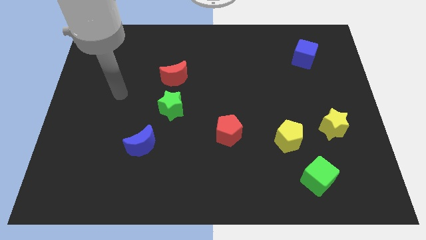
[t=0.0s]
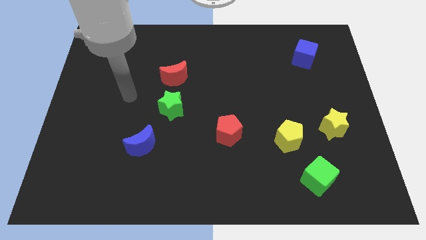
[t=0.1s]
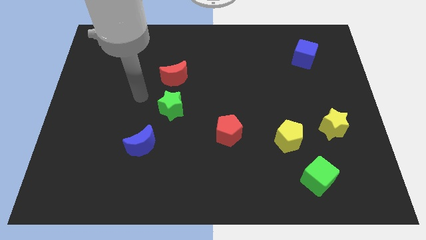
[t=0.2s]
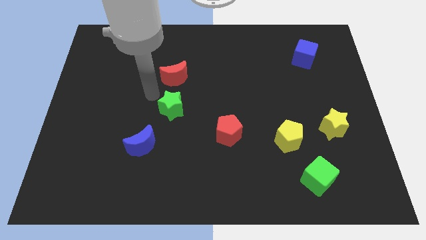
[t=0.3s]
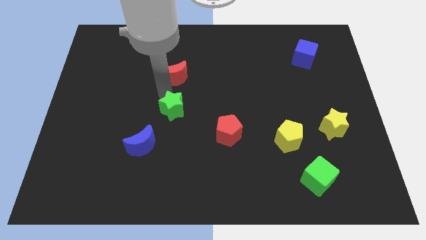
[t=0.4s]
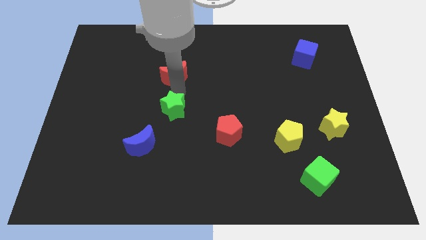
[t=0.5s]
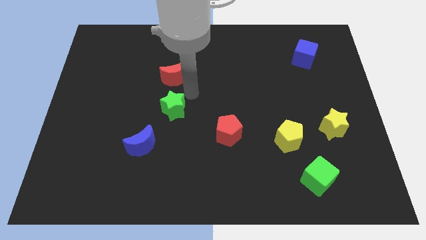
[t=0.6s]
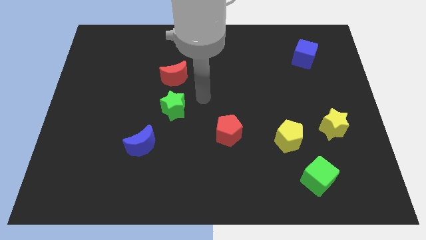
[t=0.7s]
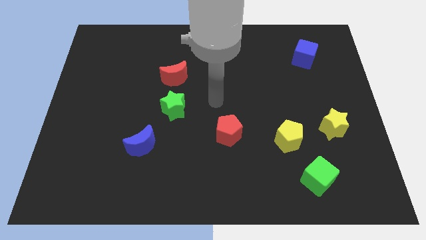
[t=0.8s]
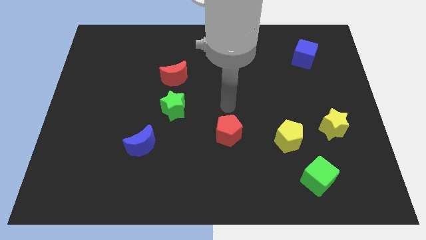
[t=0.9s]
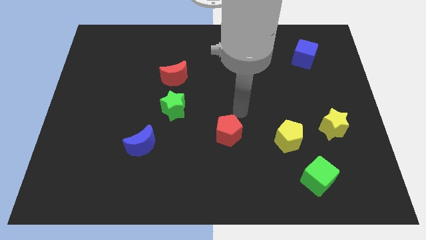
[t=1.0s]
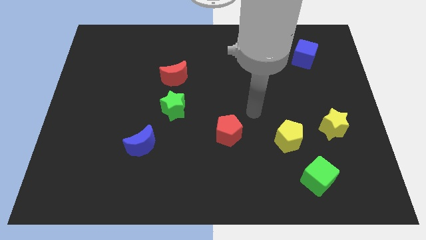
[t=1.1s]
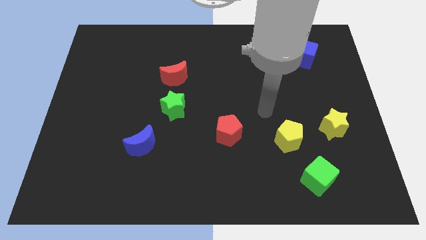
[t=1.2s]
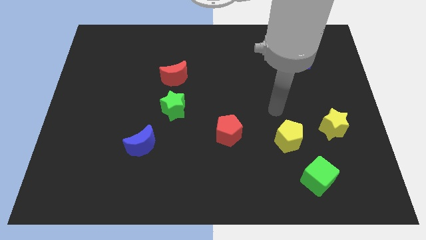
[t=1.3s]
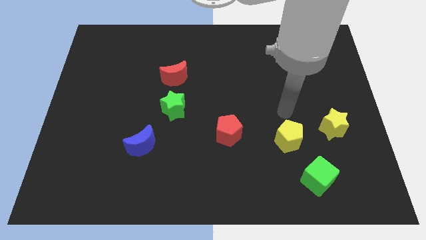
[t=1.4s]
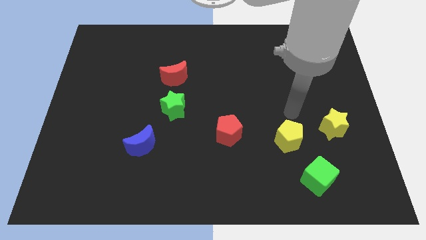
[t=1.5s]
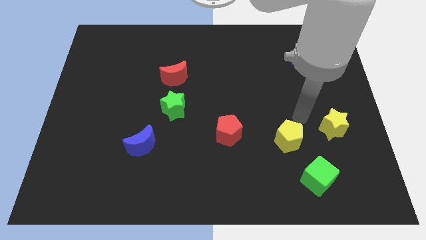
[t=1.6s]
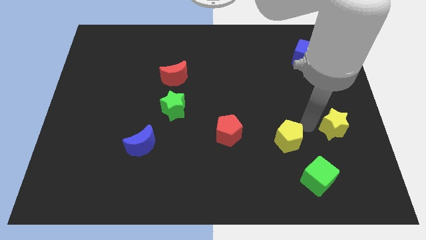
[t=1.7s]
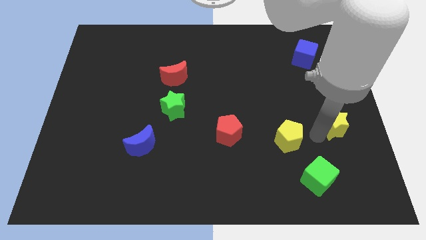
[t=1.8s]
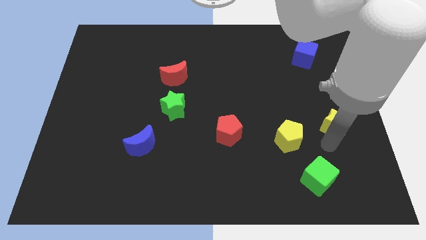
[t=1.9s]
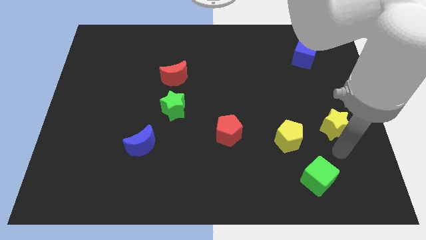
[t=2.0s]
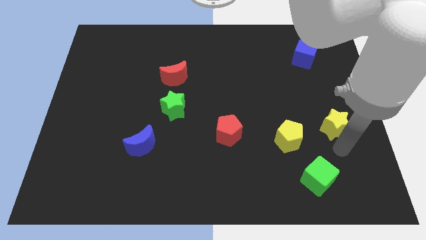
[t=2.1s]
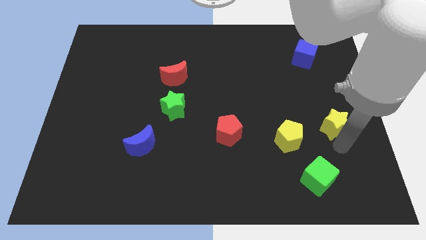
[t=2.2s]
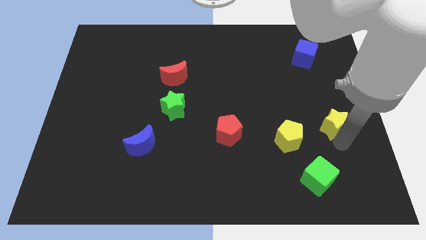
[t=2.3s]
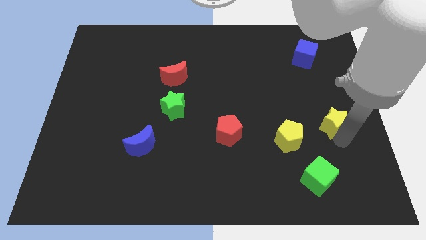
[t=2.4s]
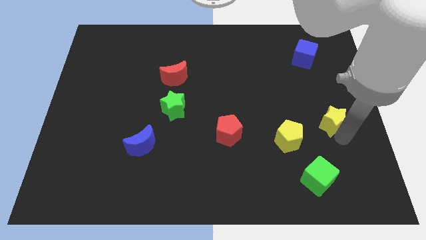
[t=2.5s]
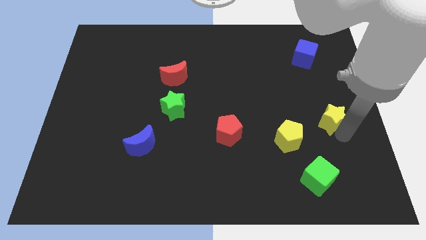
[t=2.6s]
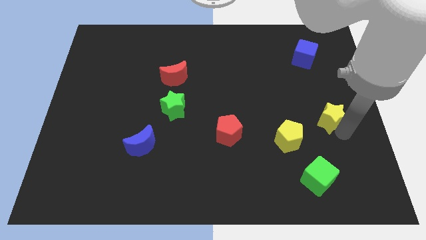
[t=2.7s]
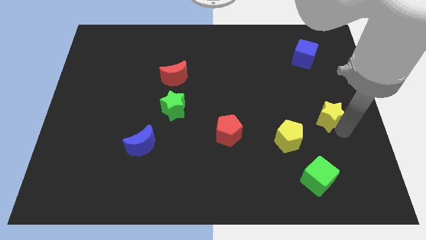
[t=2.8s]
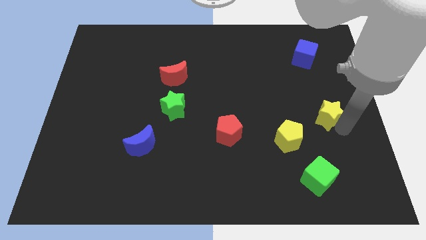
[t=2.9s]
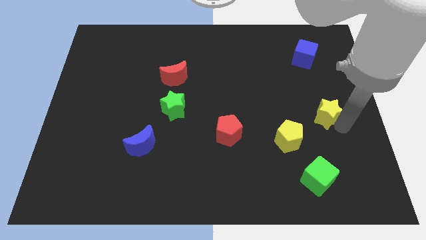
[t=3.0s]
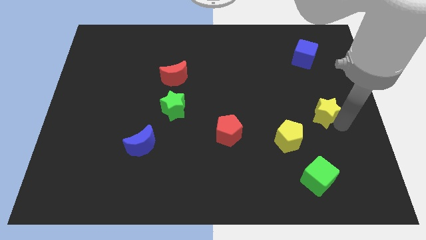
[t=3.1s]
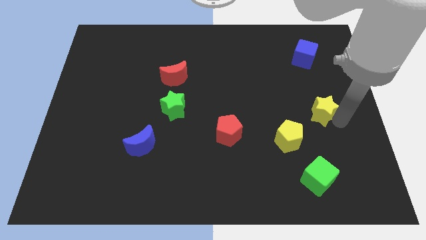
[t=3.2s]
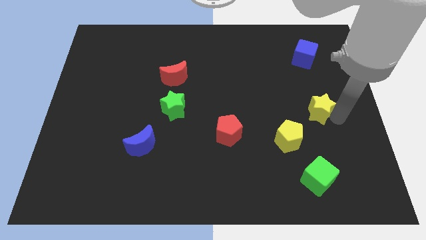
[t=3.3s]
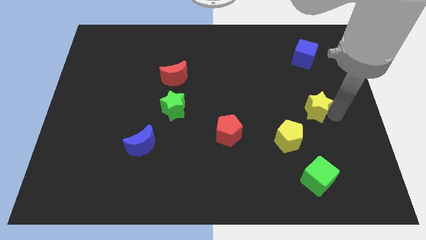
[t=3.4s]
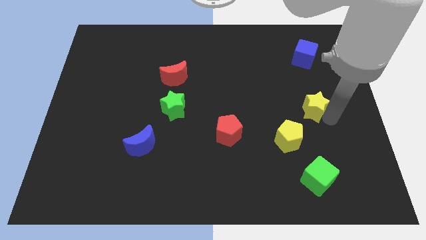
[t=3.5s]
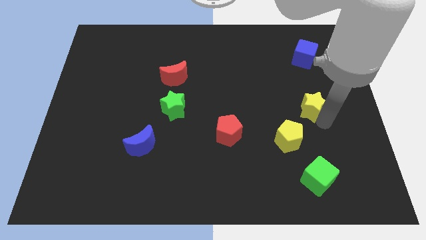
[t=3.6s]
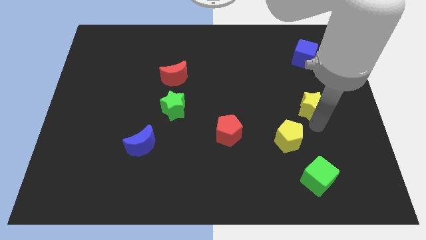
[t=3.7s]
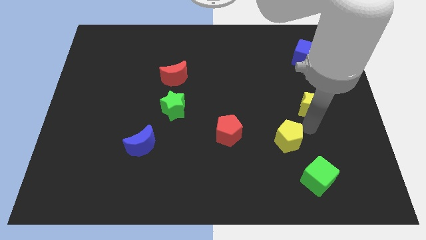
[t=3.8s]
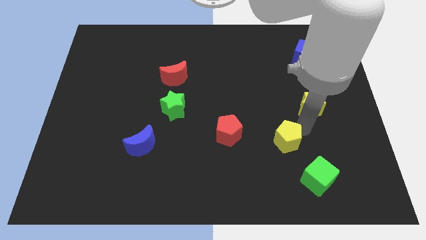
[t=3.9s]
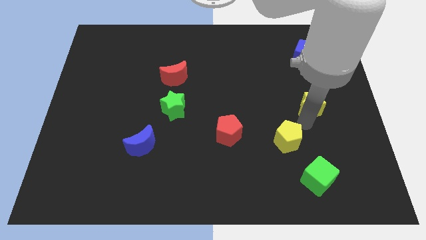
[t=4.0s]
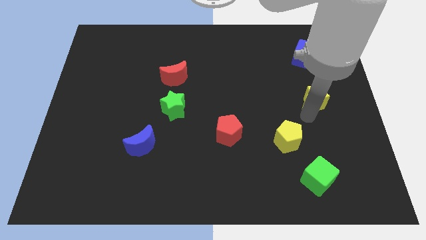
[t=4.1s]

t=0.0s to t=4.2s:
slightly move the yellow star upwards

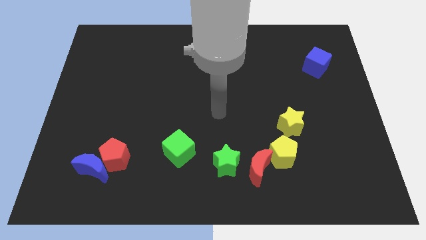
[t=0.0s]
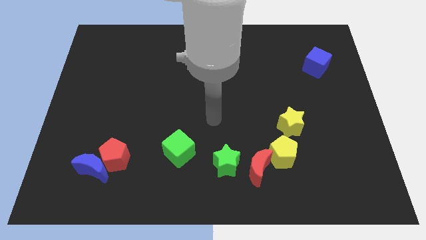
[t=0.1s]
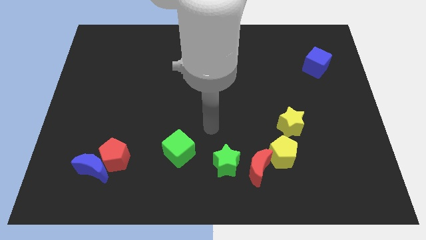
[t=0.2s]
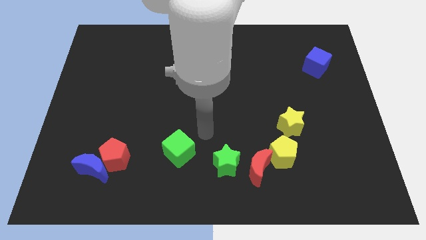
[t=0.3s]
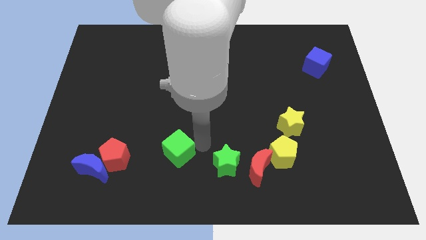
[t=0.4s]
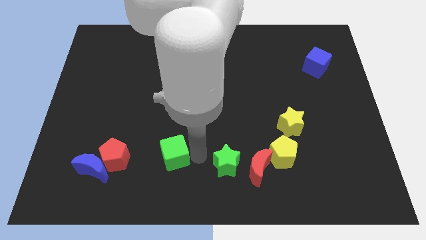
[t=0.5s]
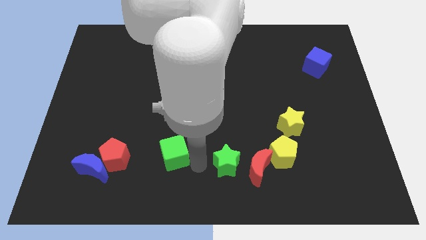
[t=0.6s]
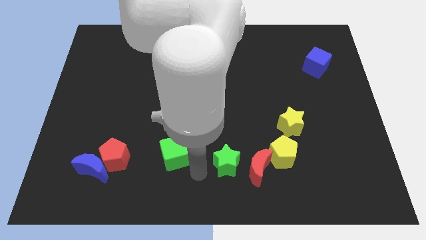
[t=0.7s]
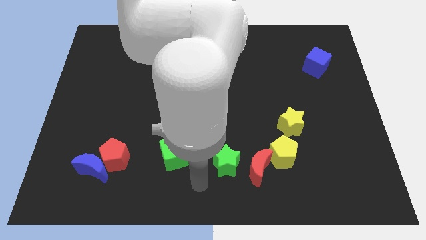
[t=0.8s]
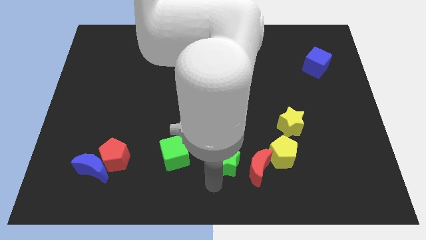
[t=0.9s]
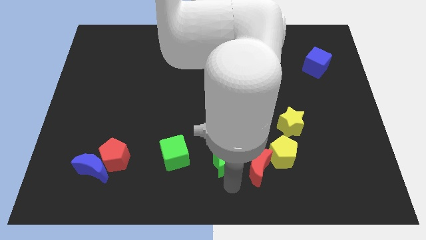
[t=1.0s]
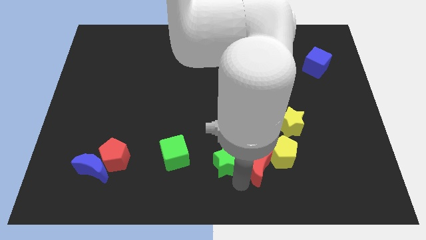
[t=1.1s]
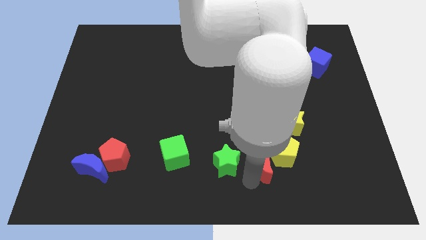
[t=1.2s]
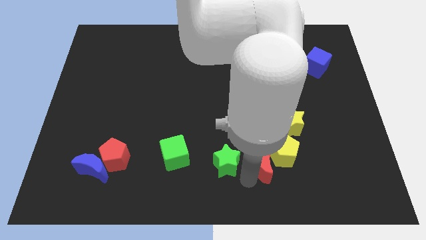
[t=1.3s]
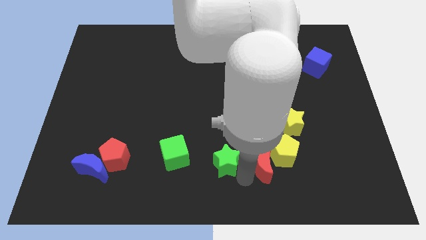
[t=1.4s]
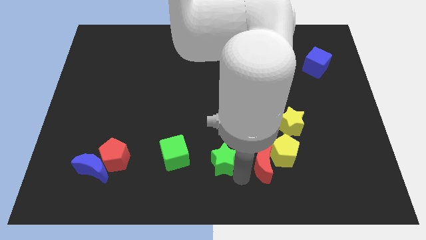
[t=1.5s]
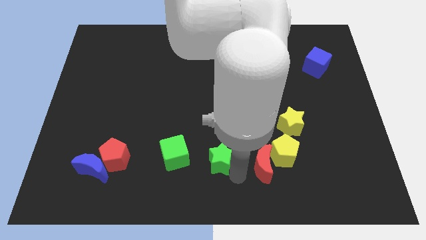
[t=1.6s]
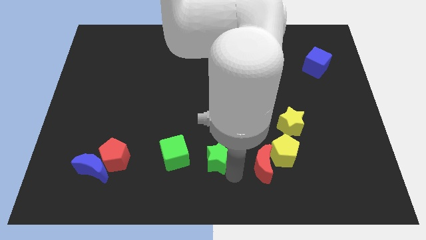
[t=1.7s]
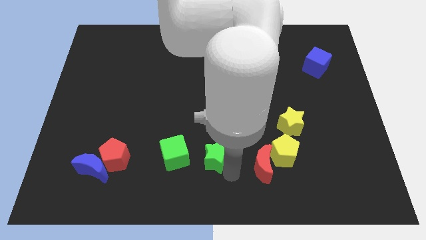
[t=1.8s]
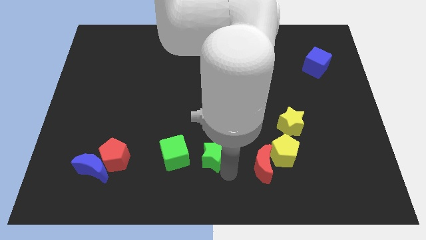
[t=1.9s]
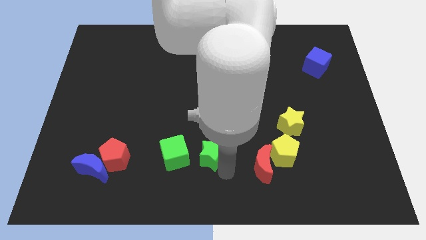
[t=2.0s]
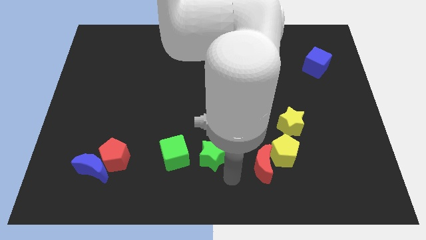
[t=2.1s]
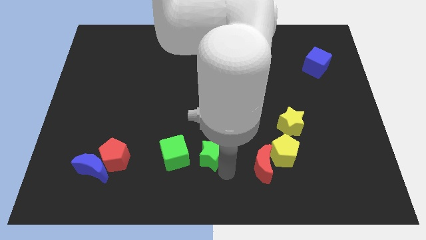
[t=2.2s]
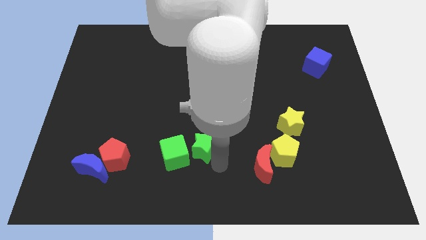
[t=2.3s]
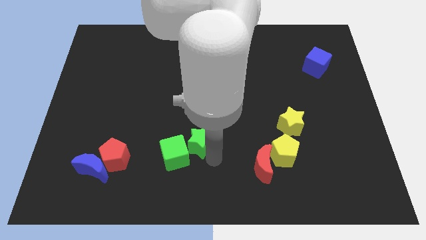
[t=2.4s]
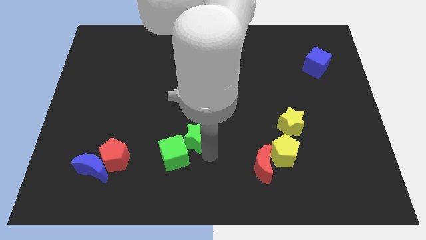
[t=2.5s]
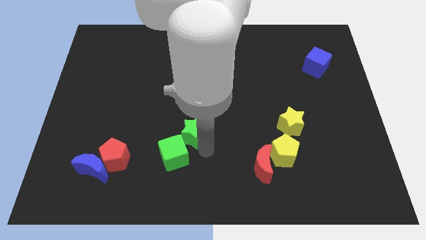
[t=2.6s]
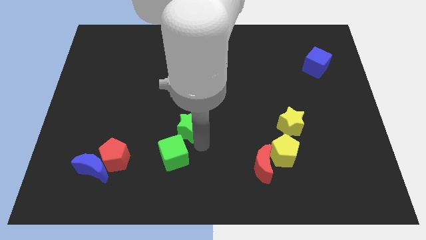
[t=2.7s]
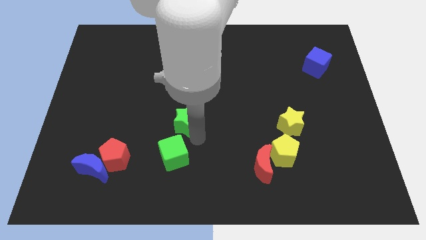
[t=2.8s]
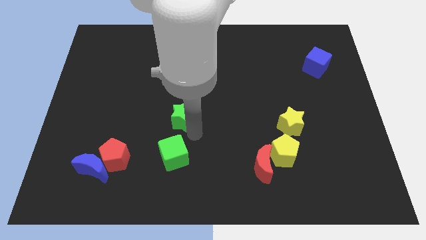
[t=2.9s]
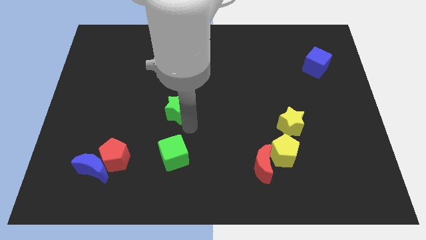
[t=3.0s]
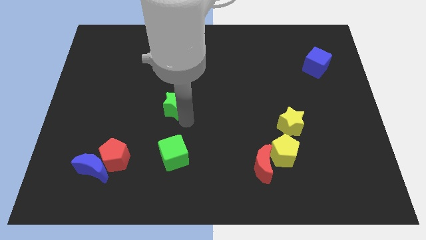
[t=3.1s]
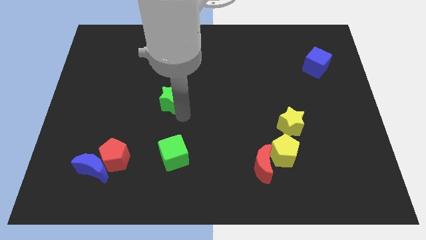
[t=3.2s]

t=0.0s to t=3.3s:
slide the green star diagonally up and to the left

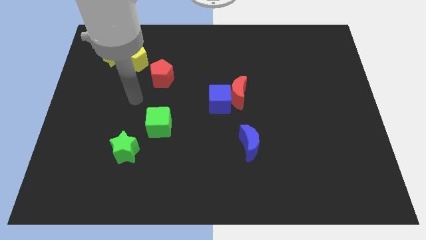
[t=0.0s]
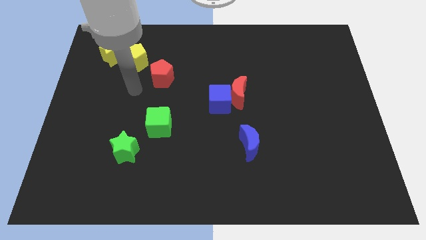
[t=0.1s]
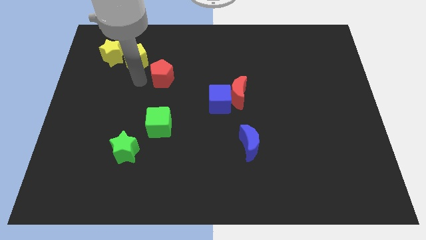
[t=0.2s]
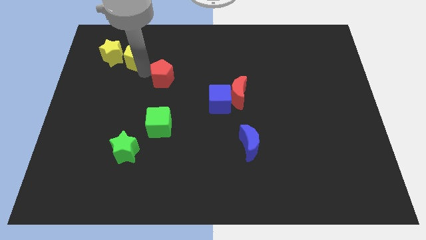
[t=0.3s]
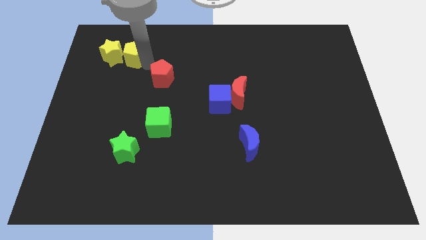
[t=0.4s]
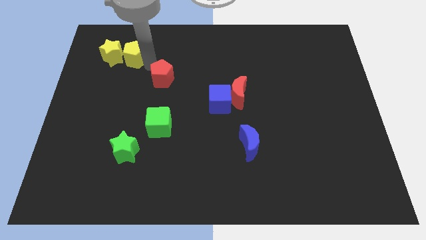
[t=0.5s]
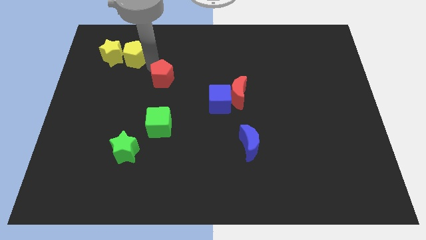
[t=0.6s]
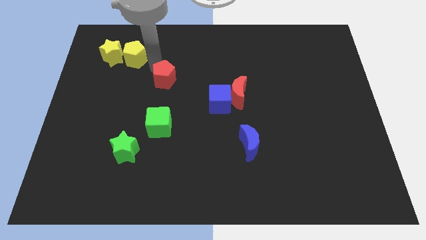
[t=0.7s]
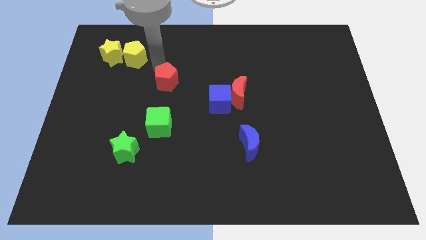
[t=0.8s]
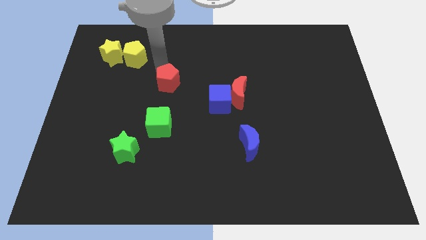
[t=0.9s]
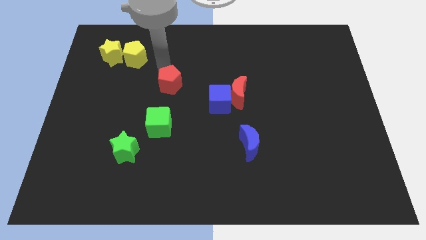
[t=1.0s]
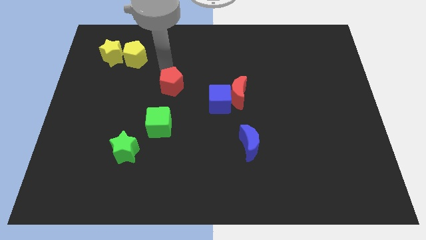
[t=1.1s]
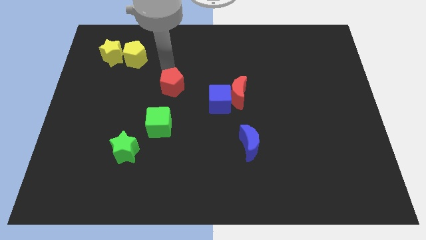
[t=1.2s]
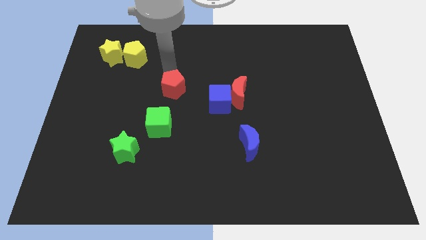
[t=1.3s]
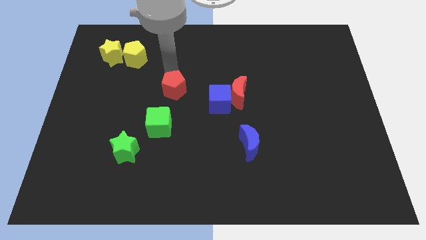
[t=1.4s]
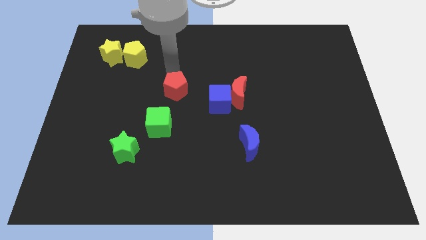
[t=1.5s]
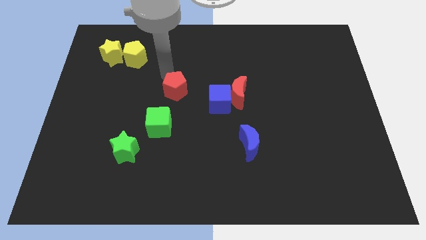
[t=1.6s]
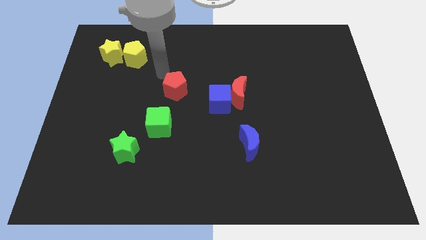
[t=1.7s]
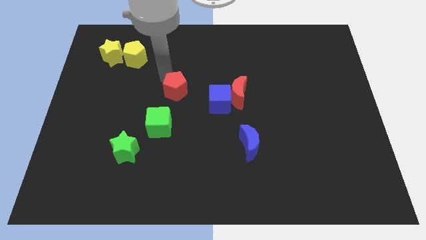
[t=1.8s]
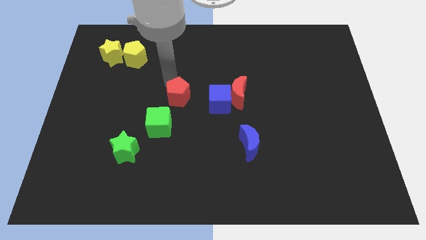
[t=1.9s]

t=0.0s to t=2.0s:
push the red pentagon downwards and right somewhat
